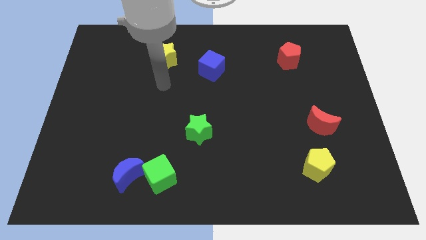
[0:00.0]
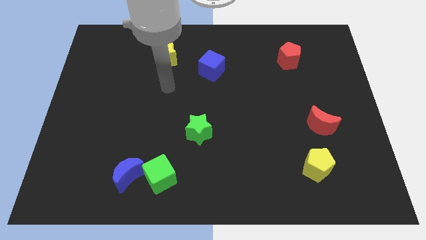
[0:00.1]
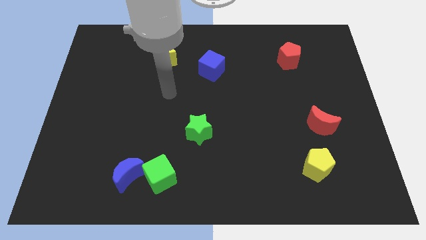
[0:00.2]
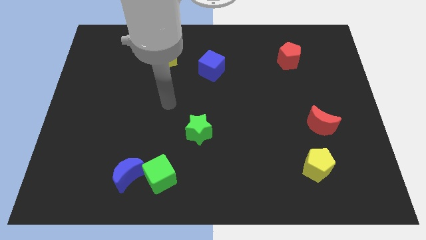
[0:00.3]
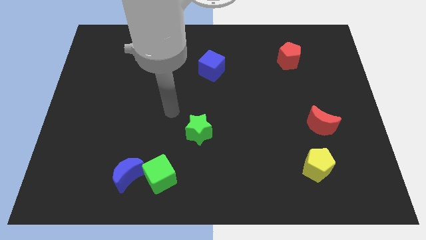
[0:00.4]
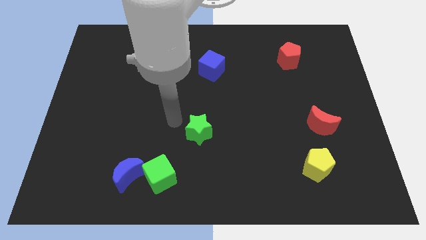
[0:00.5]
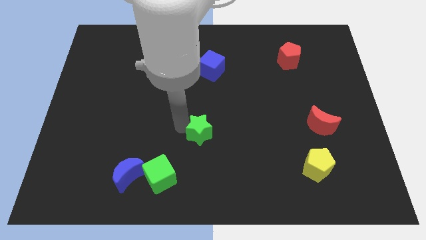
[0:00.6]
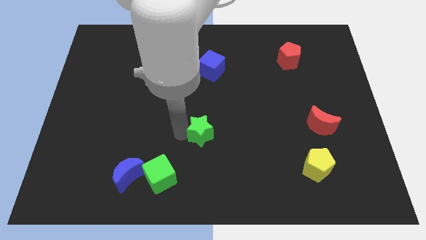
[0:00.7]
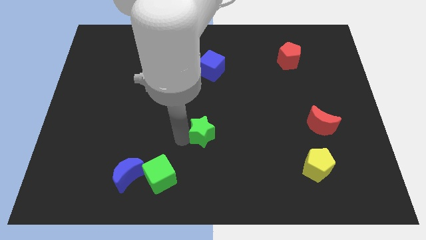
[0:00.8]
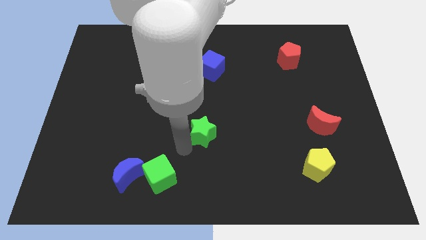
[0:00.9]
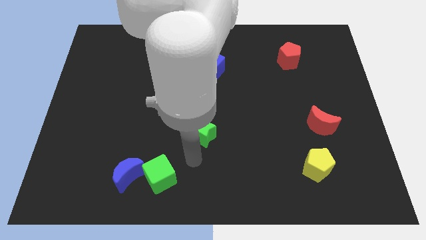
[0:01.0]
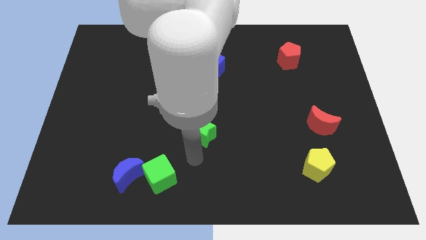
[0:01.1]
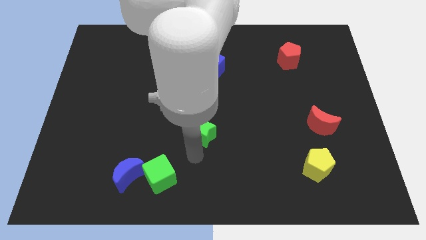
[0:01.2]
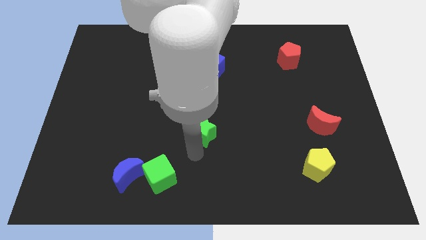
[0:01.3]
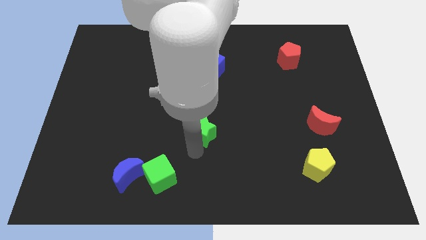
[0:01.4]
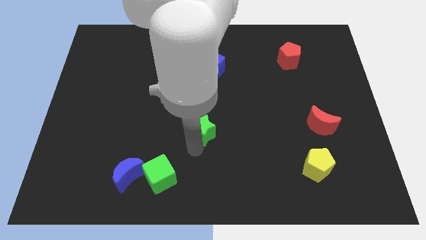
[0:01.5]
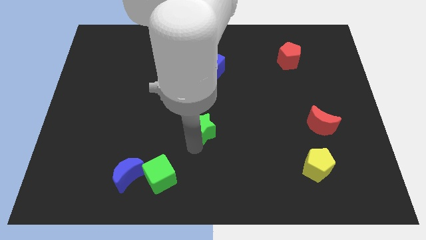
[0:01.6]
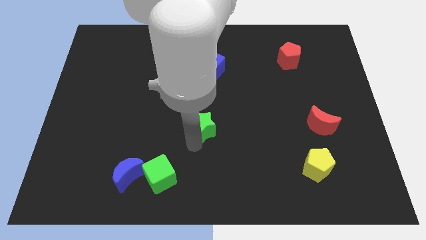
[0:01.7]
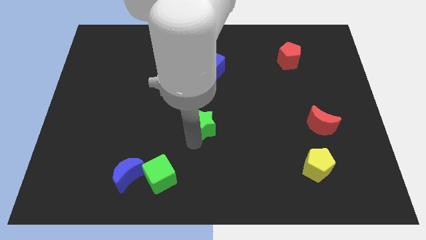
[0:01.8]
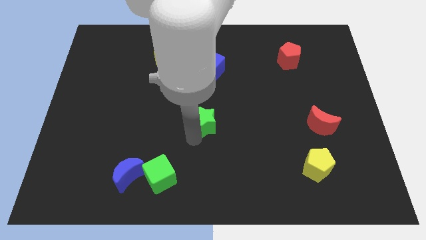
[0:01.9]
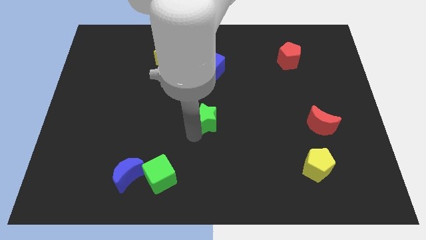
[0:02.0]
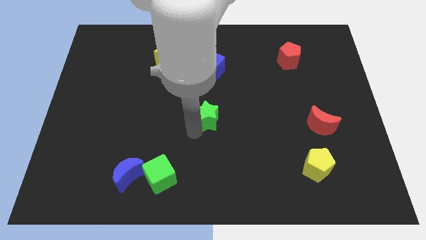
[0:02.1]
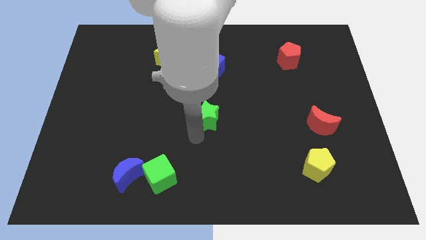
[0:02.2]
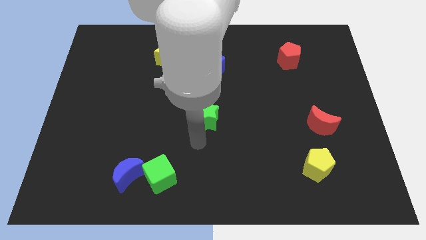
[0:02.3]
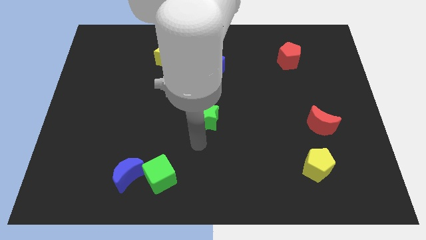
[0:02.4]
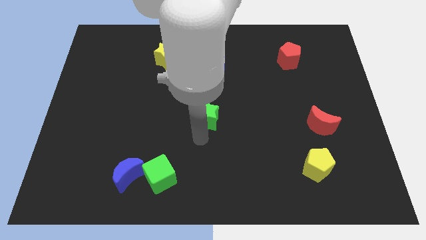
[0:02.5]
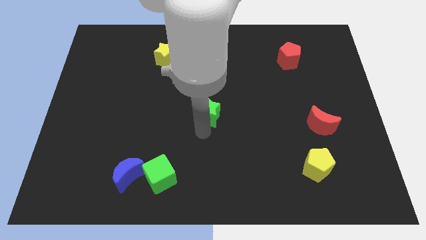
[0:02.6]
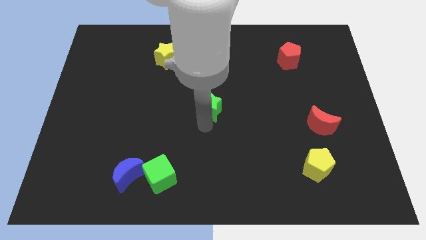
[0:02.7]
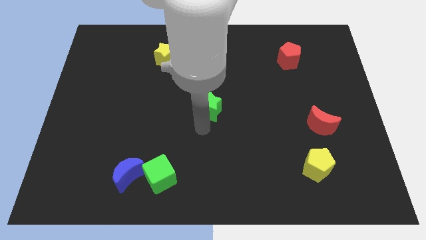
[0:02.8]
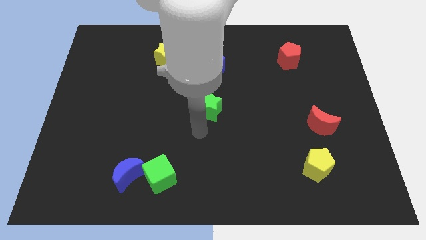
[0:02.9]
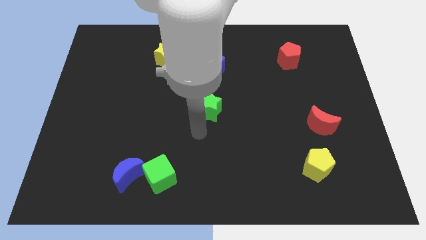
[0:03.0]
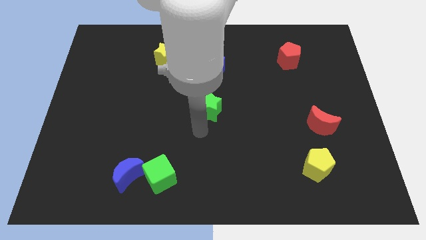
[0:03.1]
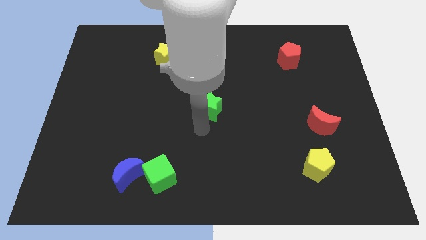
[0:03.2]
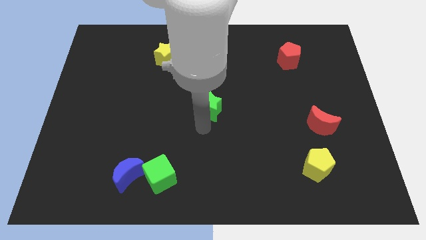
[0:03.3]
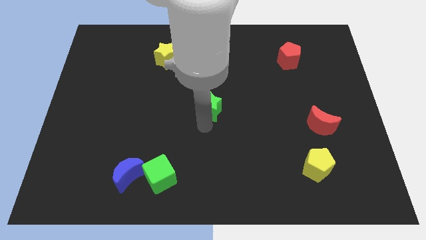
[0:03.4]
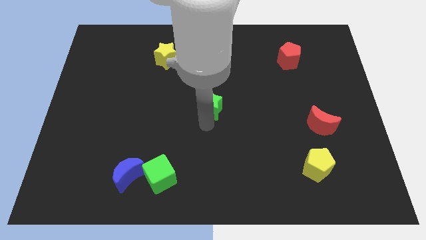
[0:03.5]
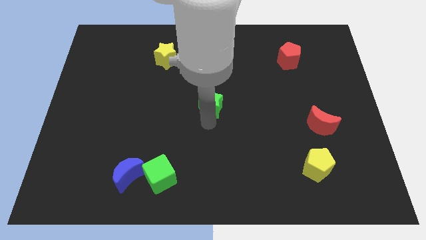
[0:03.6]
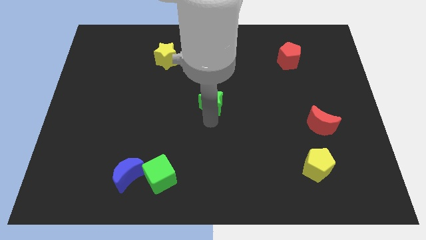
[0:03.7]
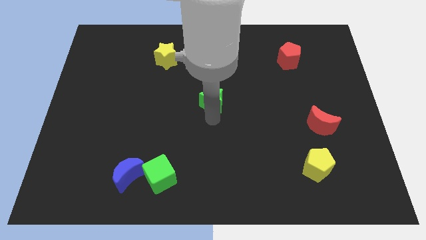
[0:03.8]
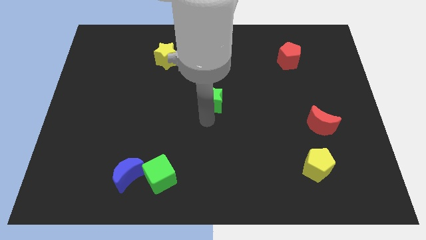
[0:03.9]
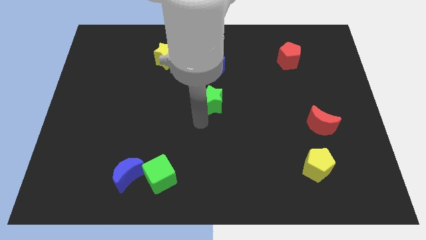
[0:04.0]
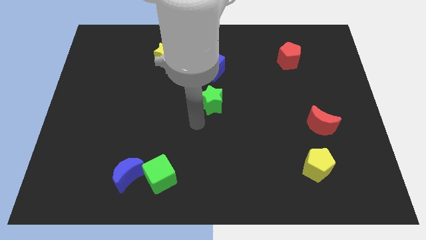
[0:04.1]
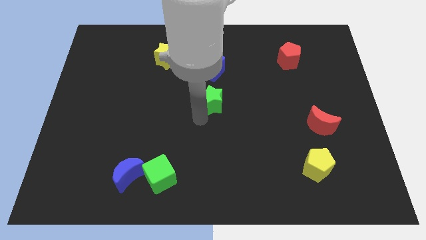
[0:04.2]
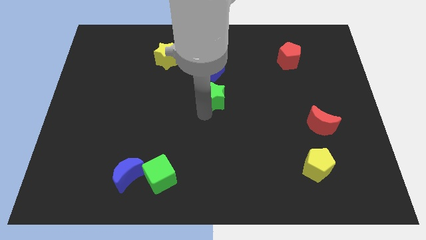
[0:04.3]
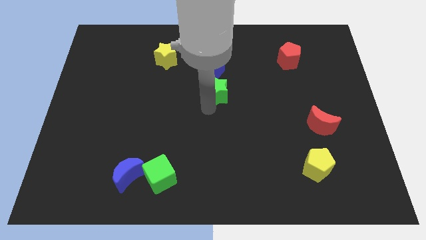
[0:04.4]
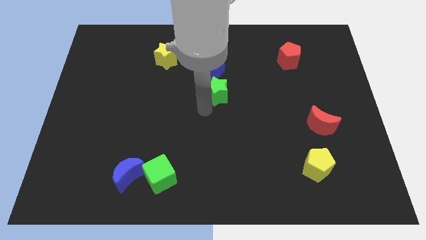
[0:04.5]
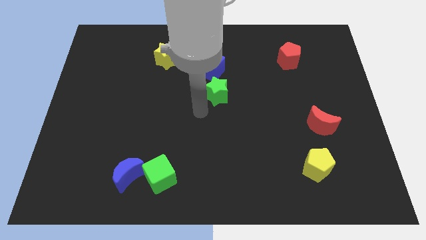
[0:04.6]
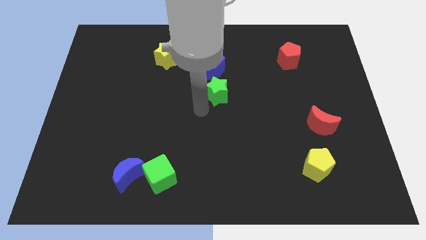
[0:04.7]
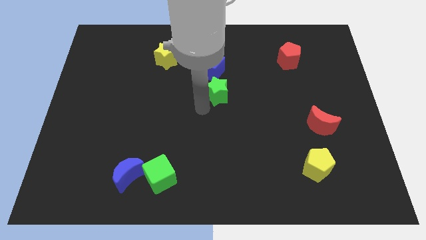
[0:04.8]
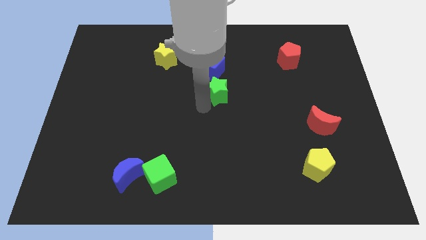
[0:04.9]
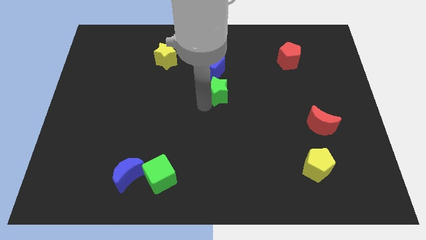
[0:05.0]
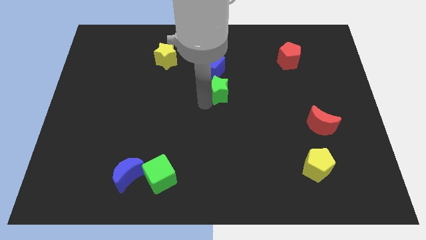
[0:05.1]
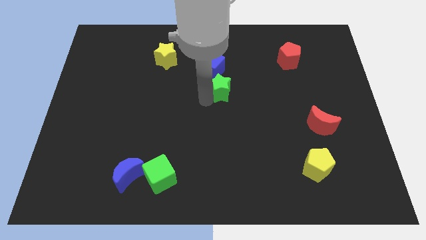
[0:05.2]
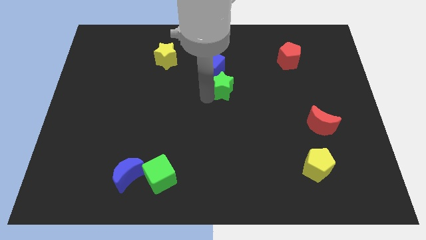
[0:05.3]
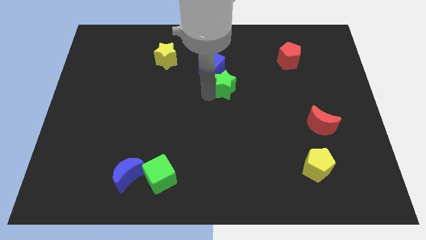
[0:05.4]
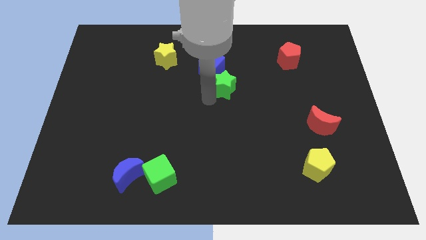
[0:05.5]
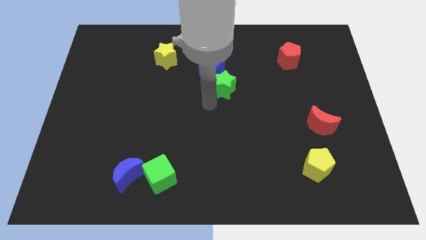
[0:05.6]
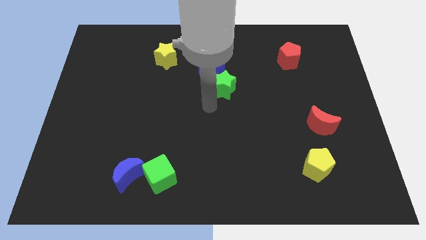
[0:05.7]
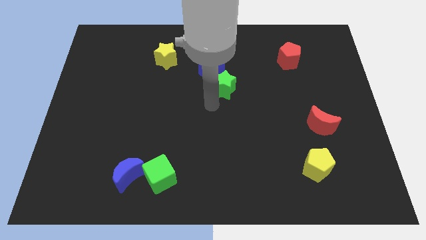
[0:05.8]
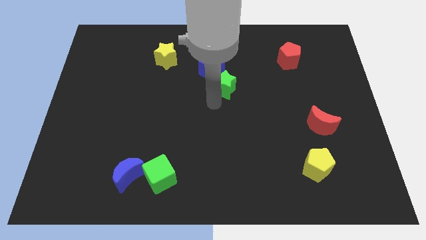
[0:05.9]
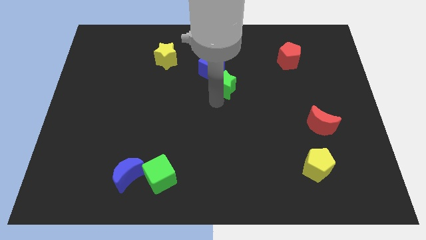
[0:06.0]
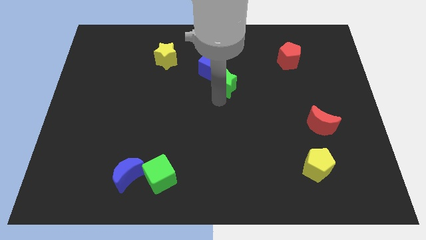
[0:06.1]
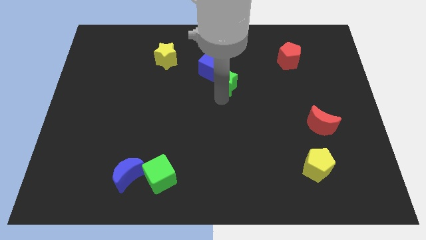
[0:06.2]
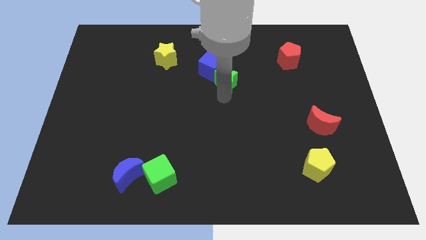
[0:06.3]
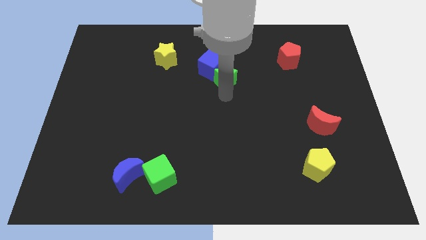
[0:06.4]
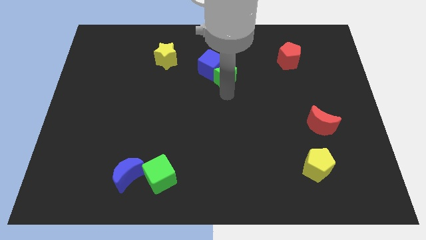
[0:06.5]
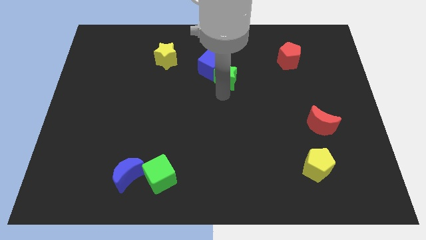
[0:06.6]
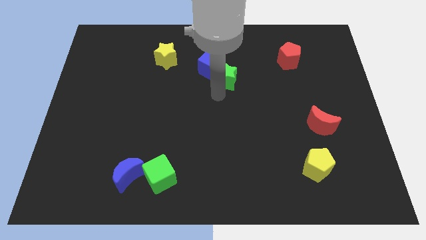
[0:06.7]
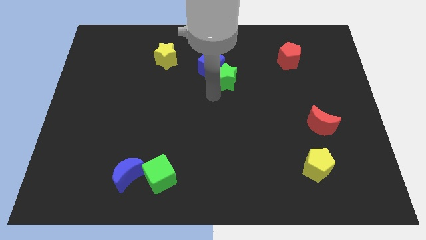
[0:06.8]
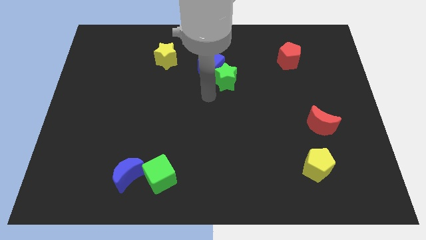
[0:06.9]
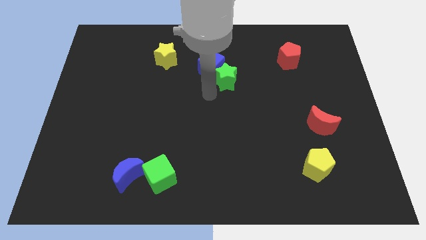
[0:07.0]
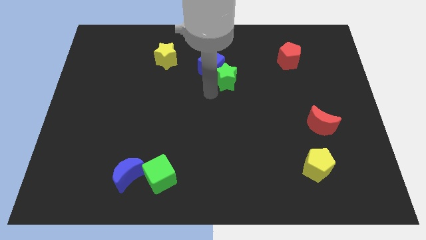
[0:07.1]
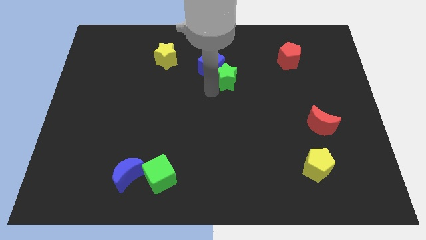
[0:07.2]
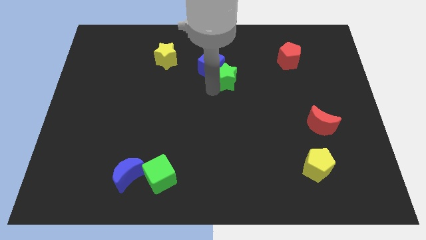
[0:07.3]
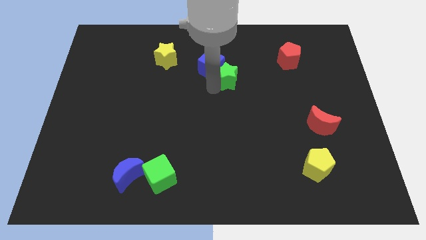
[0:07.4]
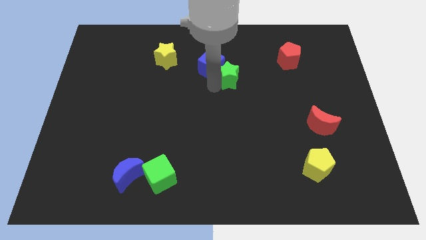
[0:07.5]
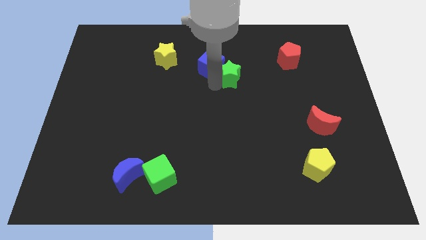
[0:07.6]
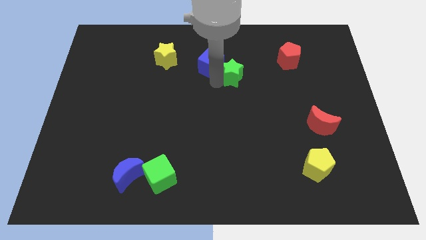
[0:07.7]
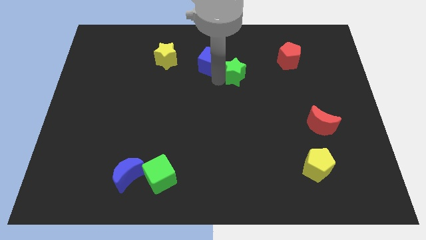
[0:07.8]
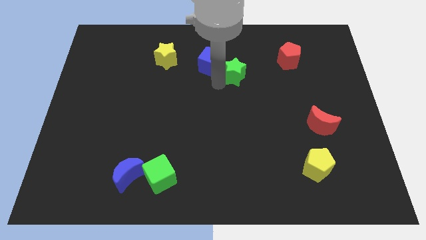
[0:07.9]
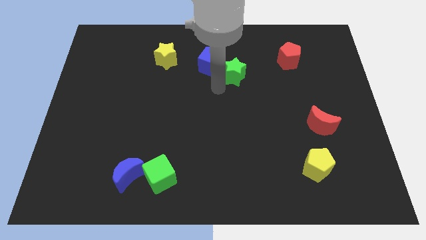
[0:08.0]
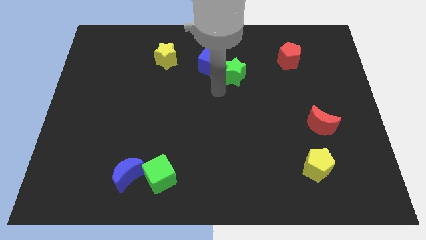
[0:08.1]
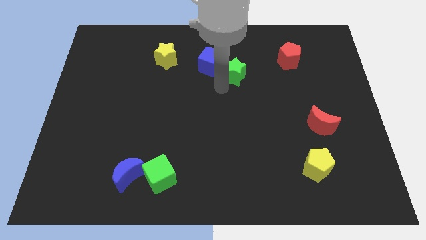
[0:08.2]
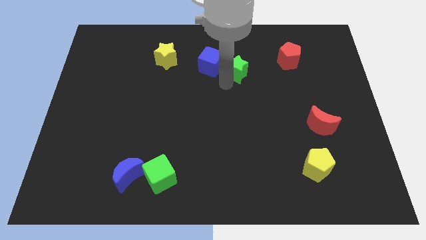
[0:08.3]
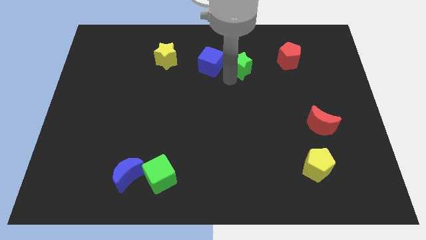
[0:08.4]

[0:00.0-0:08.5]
put the green star left of the red pentagon
